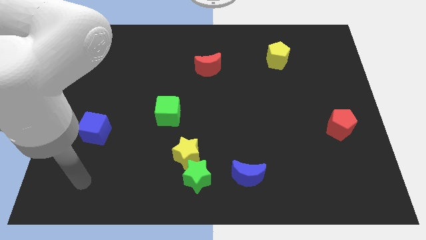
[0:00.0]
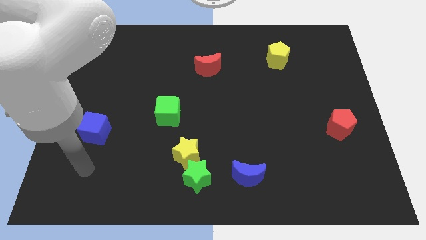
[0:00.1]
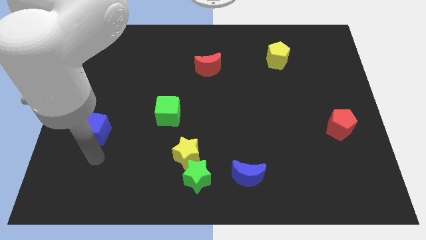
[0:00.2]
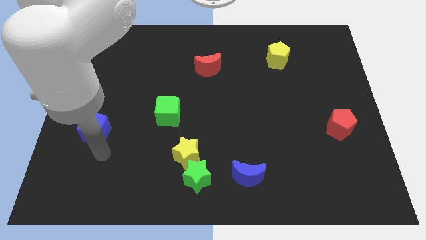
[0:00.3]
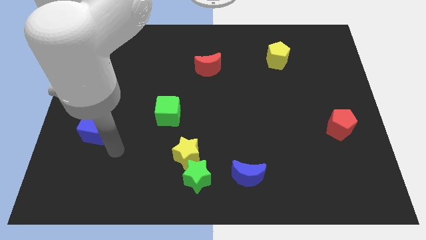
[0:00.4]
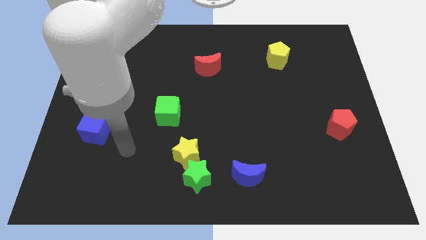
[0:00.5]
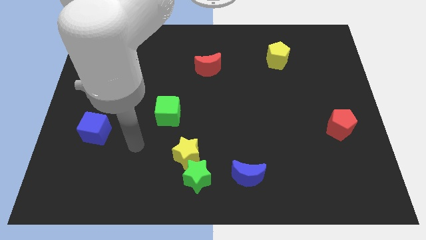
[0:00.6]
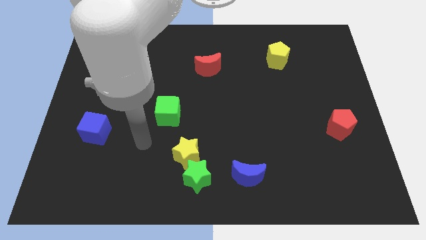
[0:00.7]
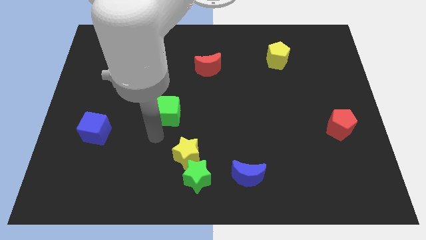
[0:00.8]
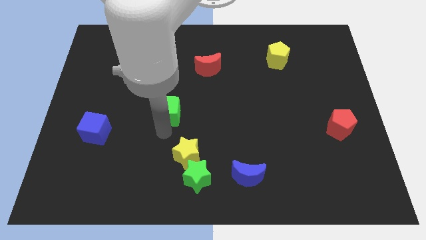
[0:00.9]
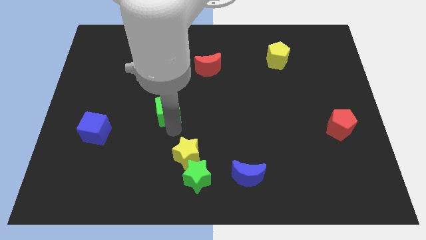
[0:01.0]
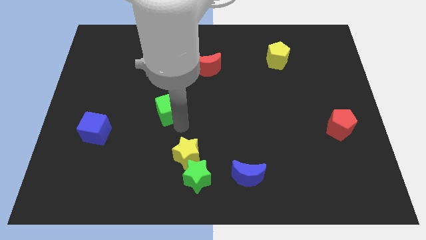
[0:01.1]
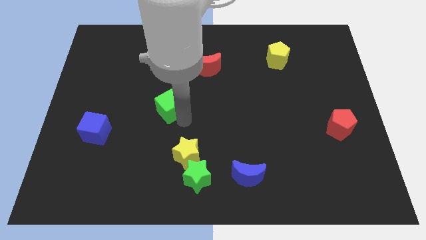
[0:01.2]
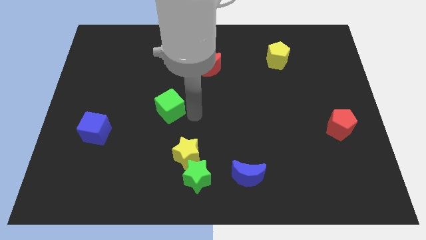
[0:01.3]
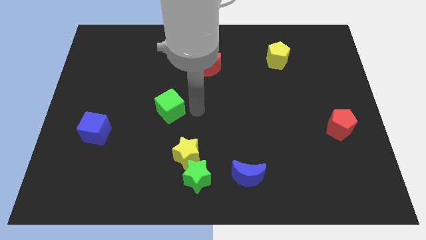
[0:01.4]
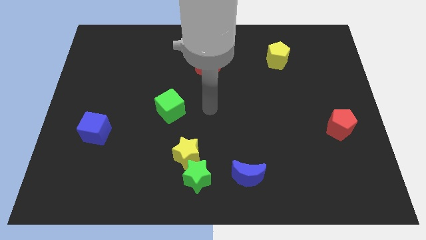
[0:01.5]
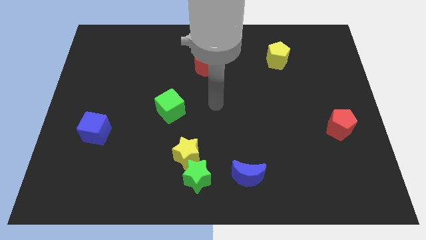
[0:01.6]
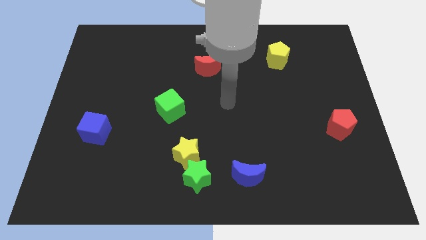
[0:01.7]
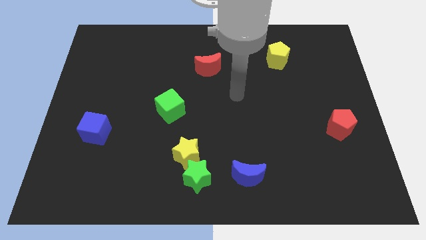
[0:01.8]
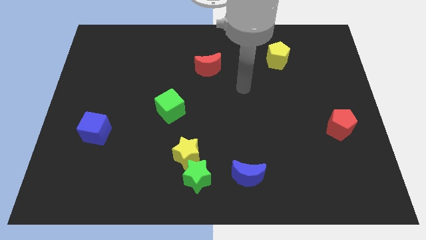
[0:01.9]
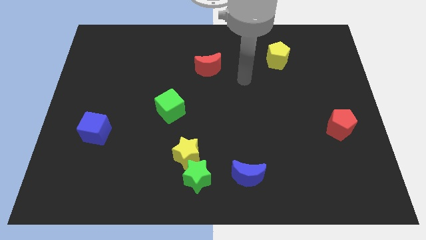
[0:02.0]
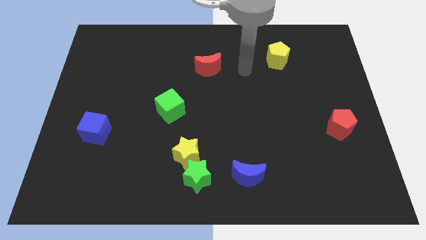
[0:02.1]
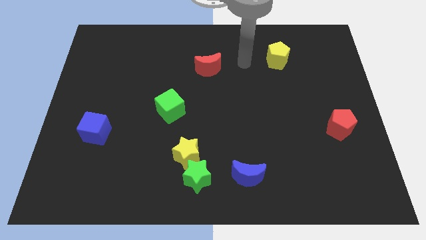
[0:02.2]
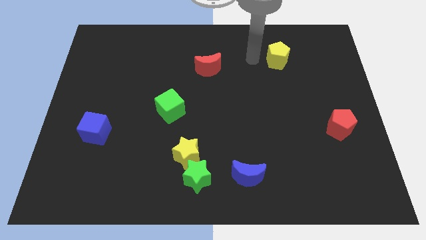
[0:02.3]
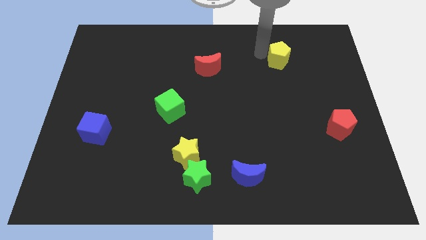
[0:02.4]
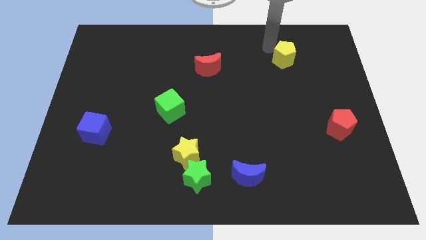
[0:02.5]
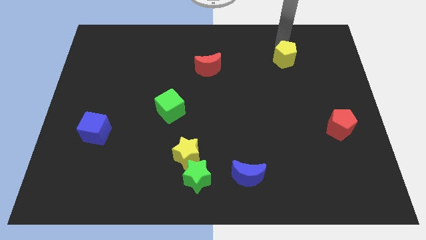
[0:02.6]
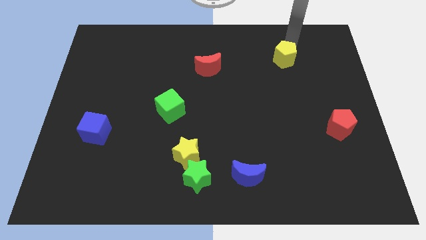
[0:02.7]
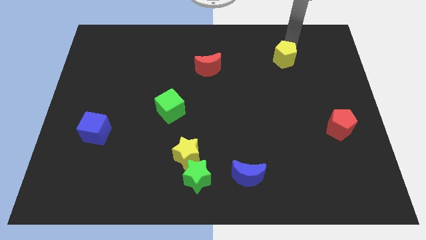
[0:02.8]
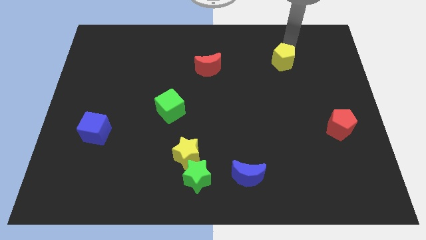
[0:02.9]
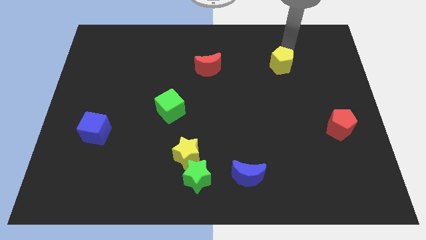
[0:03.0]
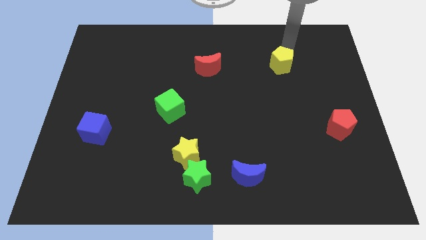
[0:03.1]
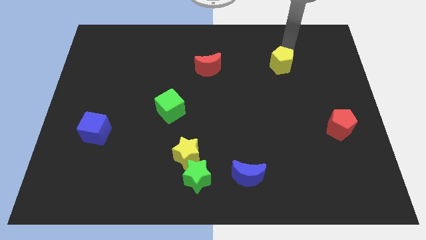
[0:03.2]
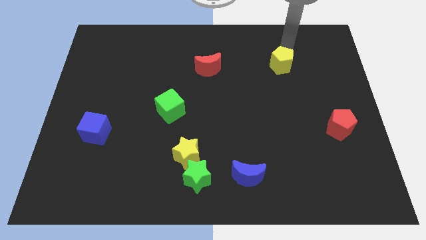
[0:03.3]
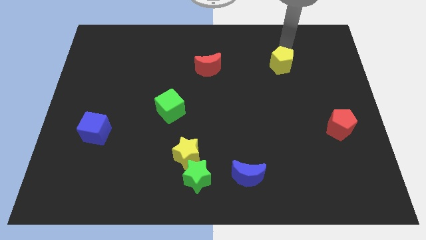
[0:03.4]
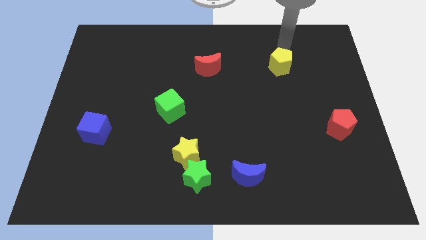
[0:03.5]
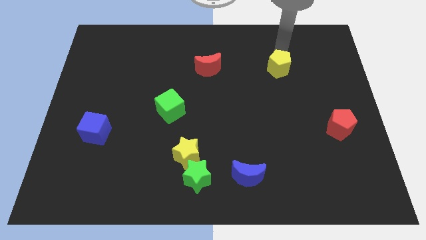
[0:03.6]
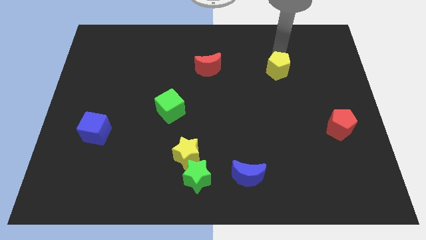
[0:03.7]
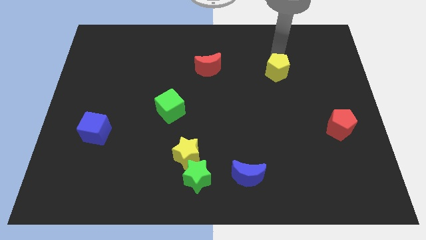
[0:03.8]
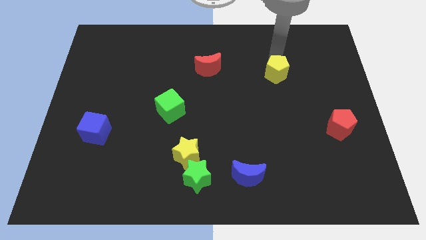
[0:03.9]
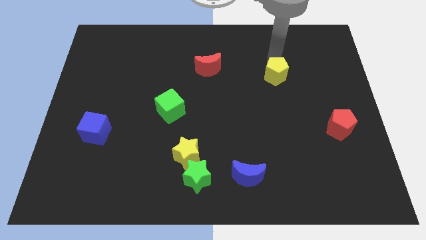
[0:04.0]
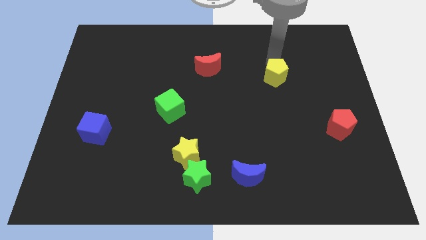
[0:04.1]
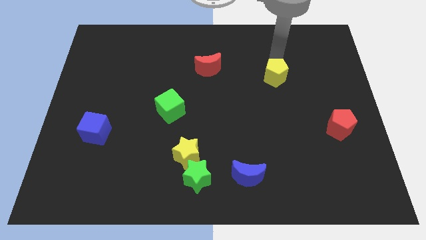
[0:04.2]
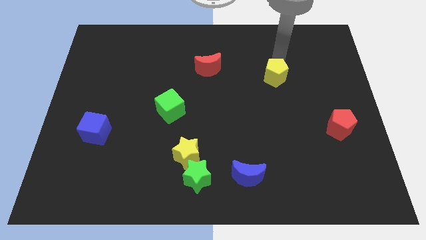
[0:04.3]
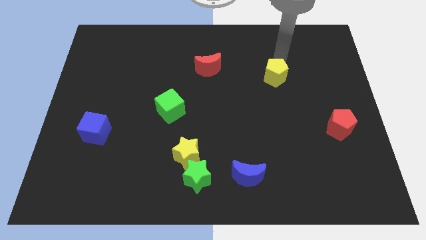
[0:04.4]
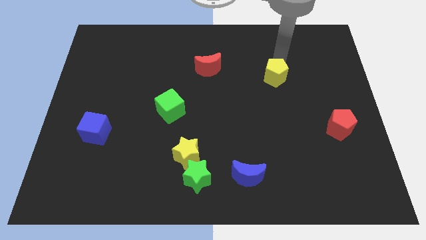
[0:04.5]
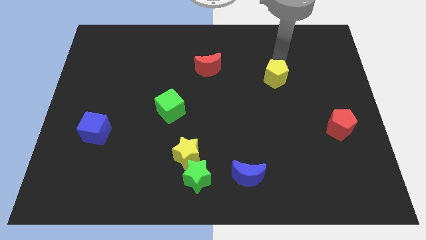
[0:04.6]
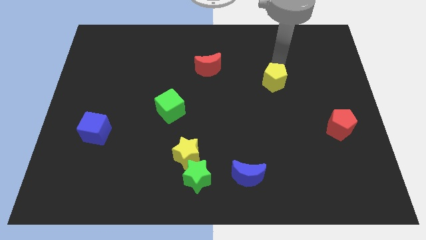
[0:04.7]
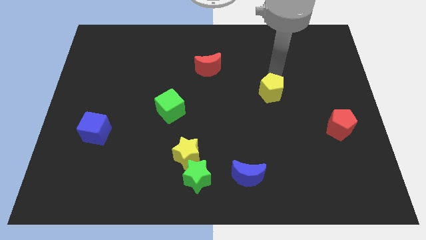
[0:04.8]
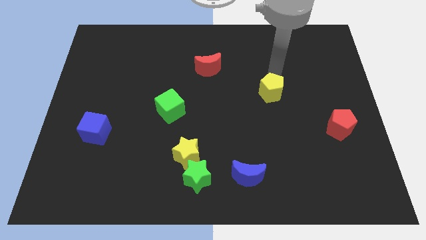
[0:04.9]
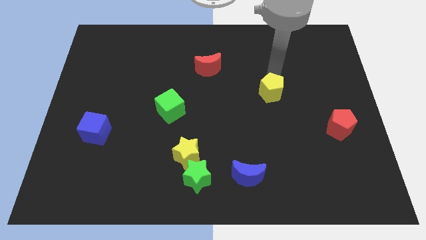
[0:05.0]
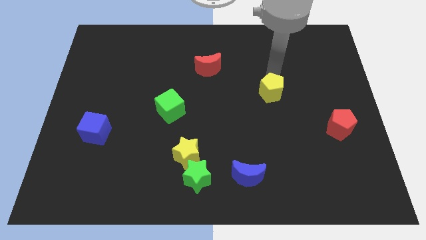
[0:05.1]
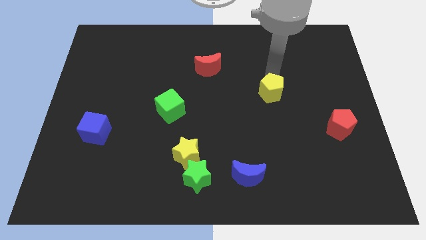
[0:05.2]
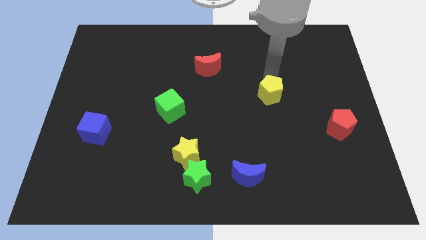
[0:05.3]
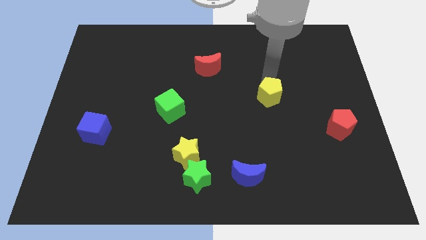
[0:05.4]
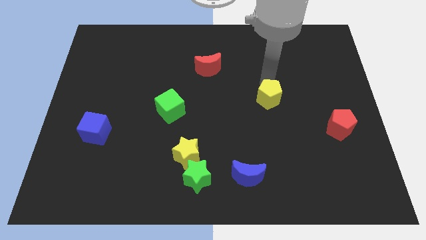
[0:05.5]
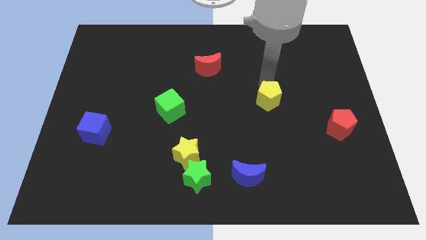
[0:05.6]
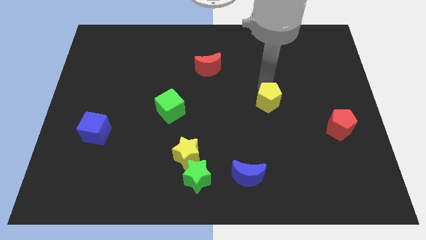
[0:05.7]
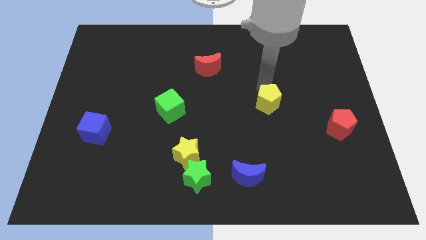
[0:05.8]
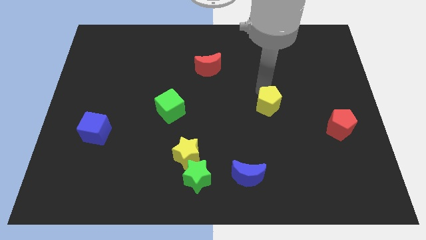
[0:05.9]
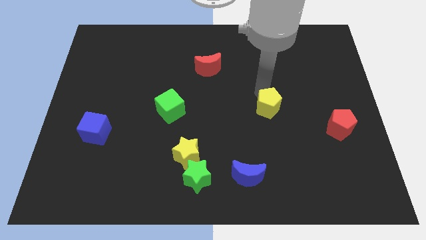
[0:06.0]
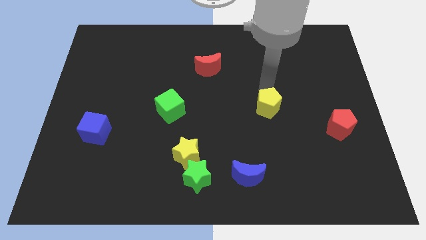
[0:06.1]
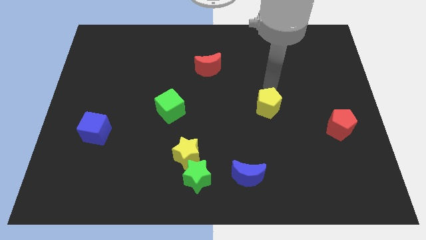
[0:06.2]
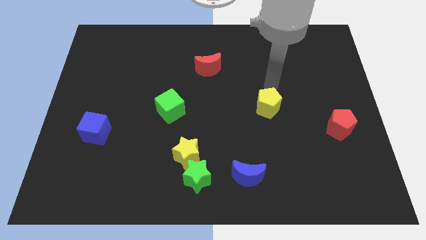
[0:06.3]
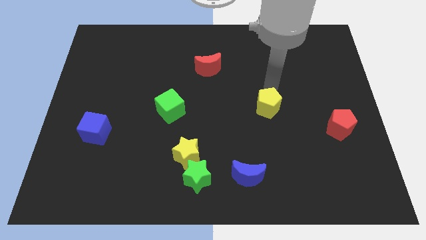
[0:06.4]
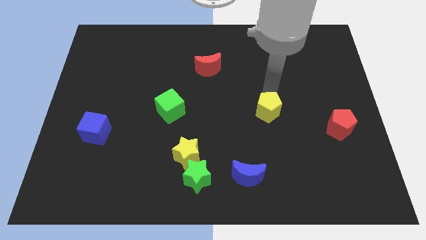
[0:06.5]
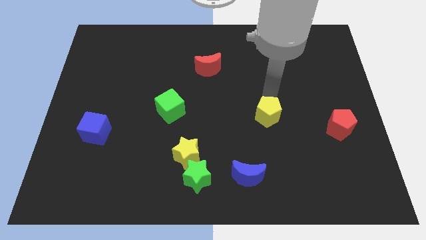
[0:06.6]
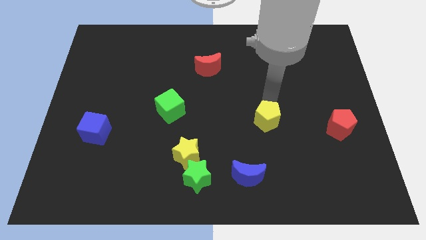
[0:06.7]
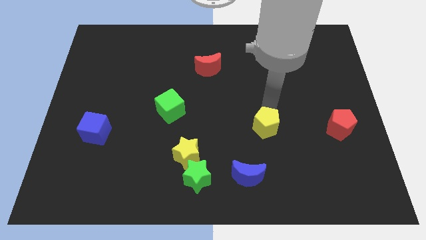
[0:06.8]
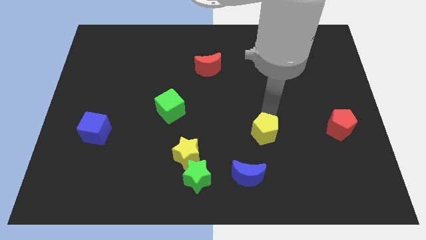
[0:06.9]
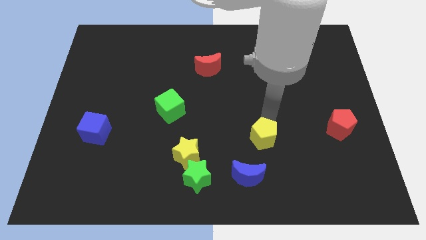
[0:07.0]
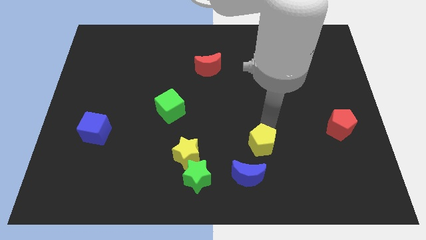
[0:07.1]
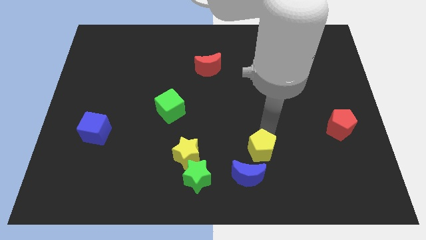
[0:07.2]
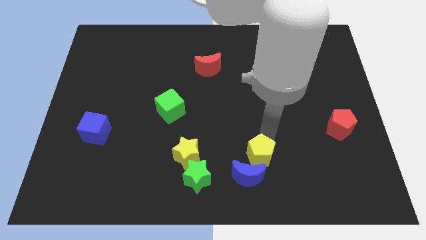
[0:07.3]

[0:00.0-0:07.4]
slide the yellow pentagon to the blue moon
